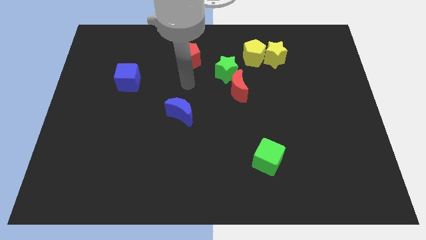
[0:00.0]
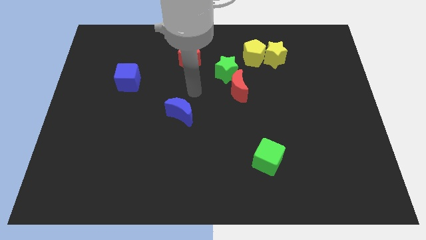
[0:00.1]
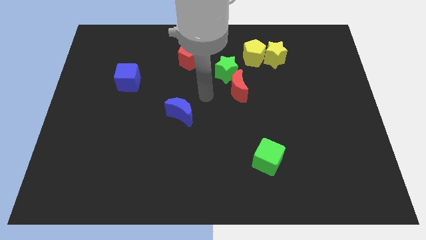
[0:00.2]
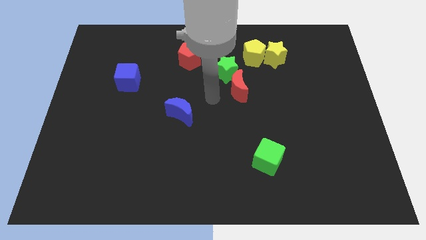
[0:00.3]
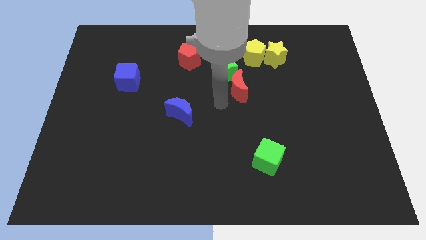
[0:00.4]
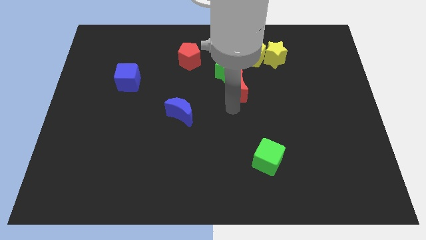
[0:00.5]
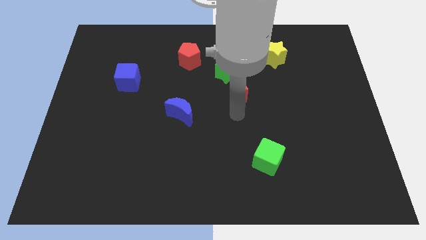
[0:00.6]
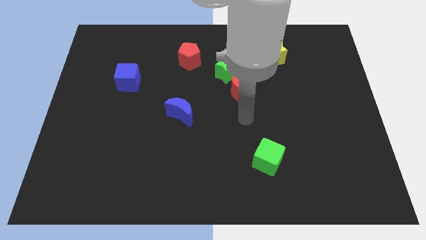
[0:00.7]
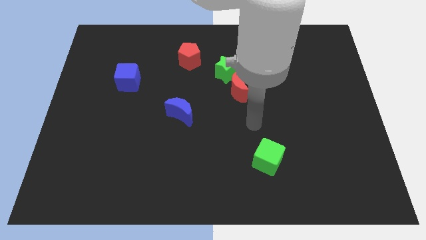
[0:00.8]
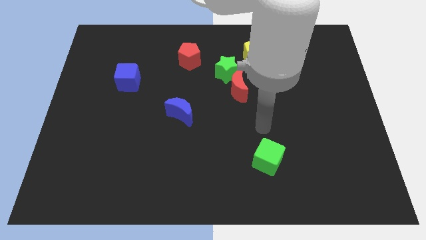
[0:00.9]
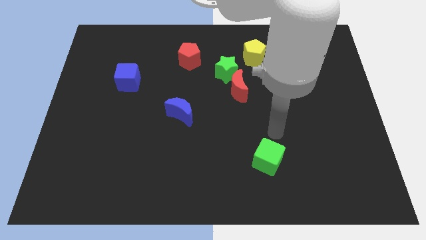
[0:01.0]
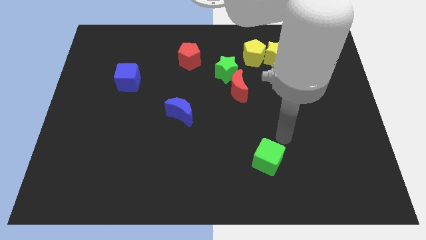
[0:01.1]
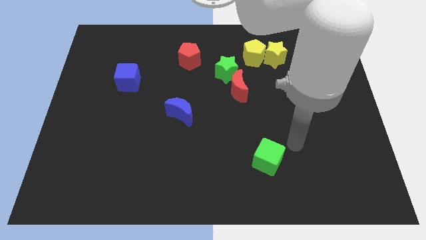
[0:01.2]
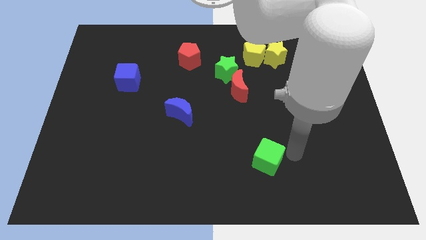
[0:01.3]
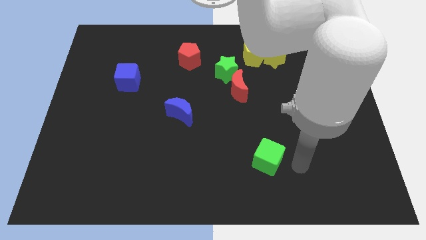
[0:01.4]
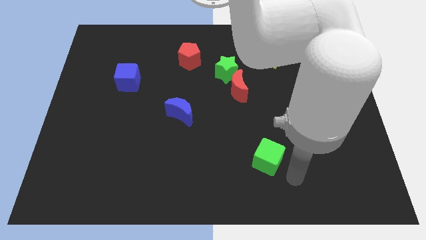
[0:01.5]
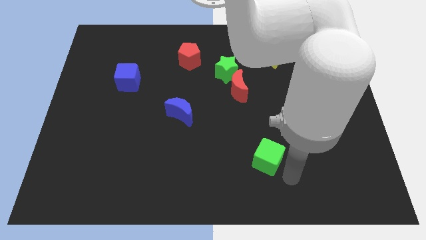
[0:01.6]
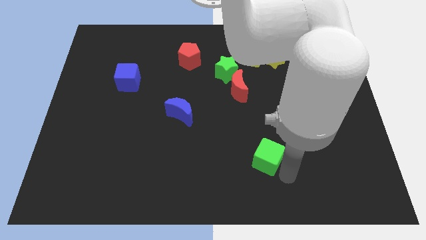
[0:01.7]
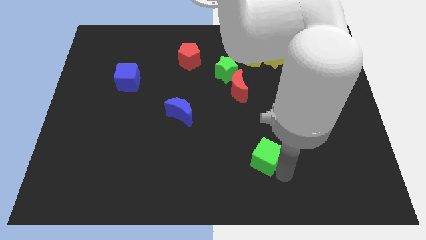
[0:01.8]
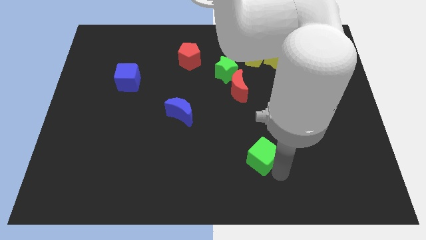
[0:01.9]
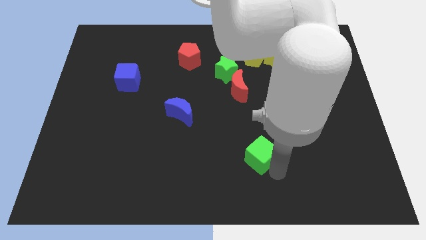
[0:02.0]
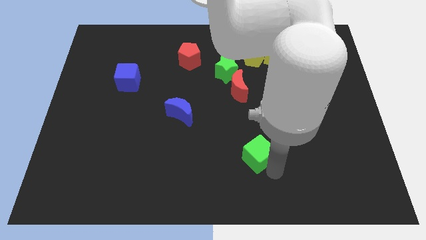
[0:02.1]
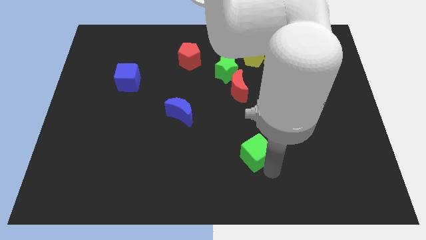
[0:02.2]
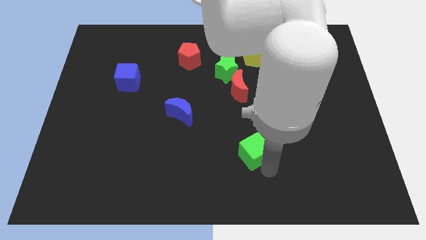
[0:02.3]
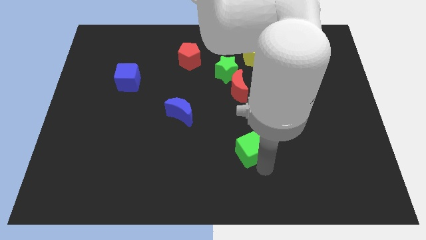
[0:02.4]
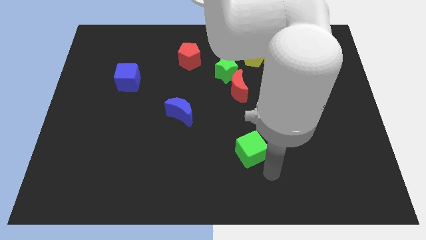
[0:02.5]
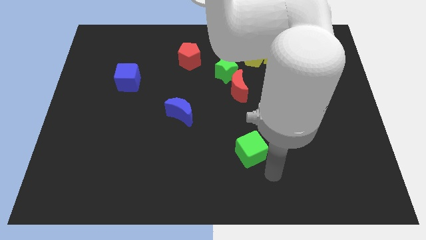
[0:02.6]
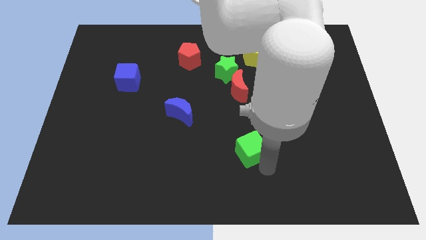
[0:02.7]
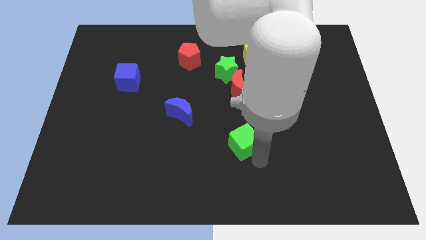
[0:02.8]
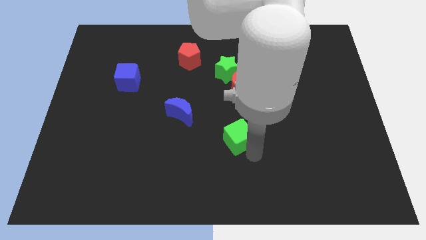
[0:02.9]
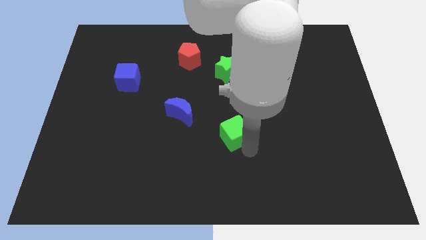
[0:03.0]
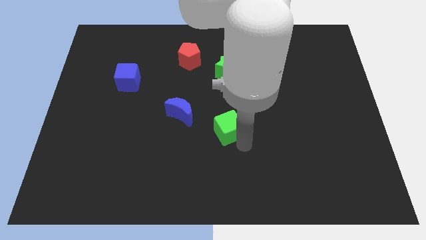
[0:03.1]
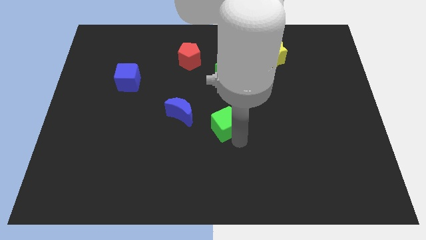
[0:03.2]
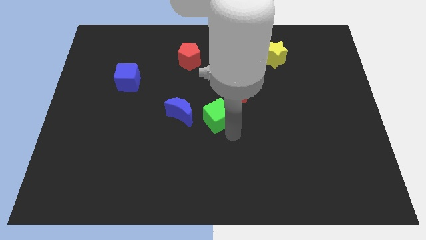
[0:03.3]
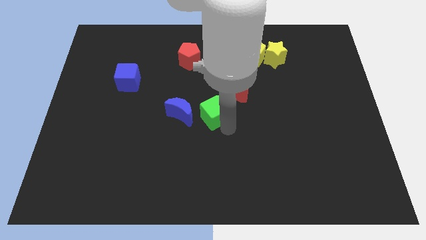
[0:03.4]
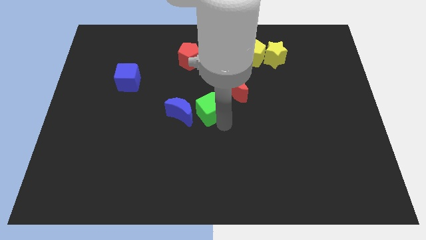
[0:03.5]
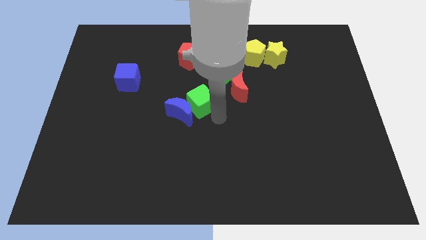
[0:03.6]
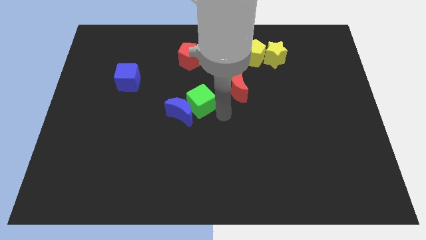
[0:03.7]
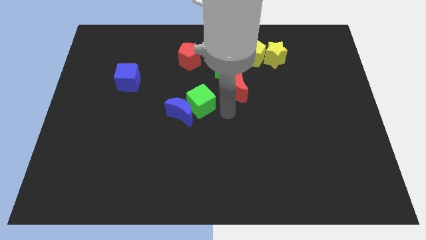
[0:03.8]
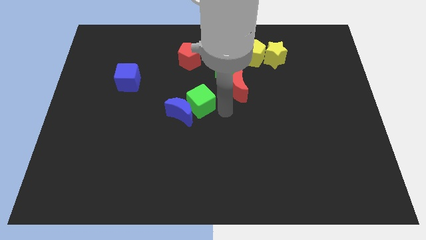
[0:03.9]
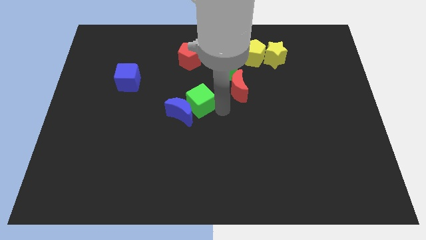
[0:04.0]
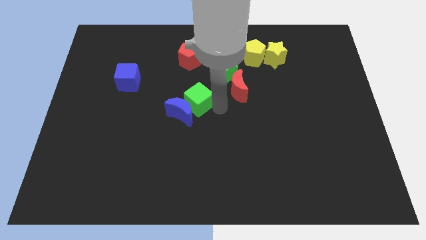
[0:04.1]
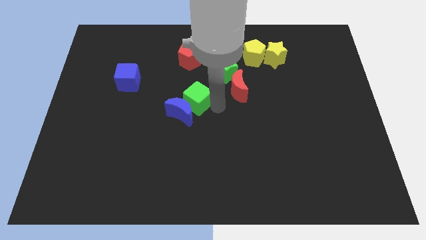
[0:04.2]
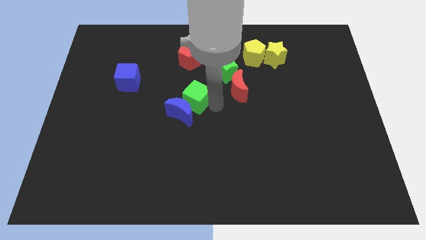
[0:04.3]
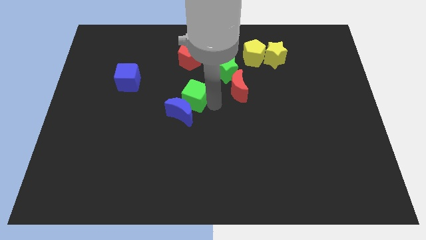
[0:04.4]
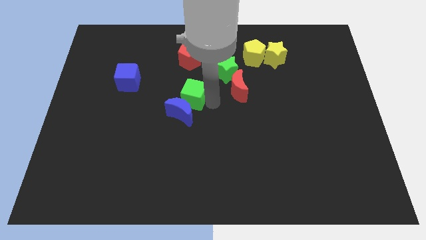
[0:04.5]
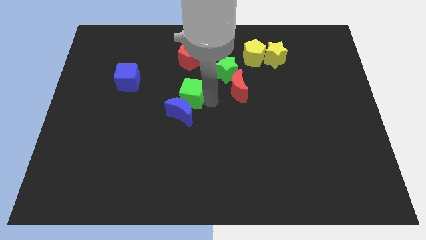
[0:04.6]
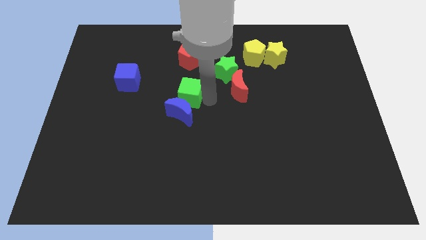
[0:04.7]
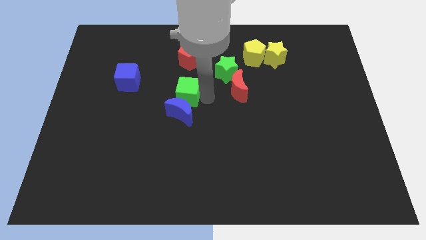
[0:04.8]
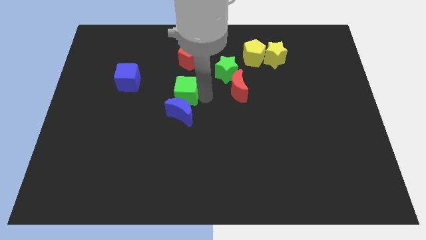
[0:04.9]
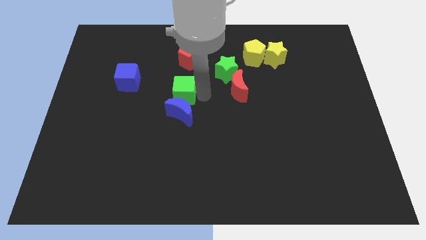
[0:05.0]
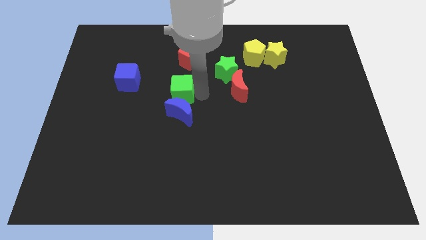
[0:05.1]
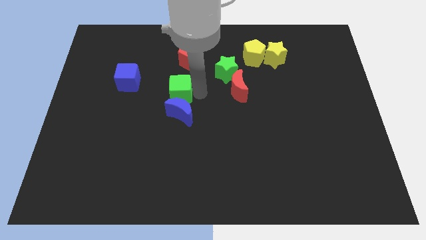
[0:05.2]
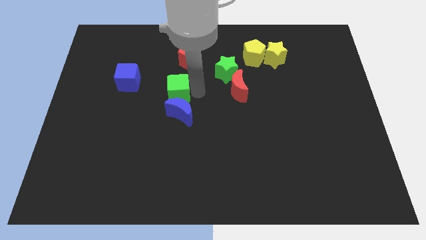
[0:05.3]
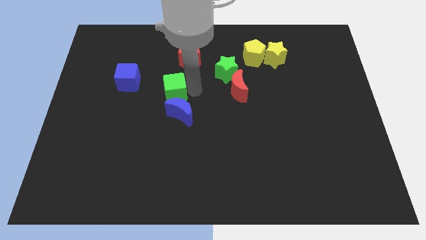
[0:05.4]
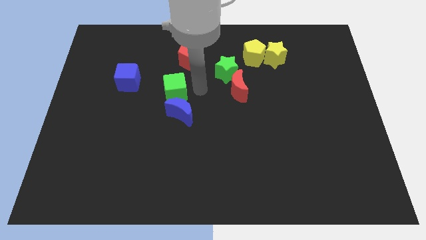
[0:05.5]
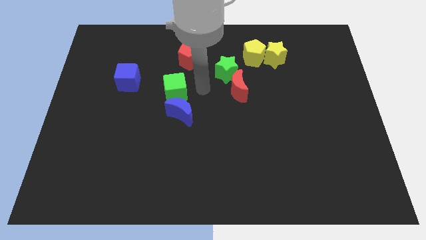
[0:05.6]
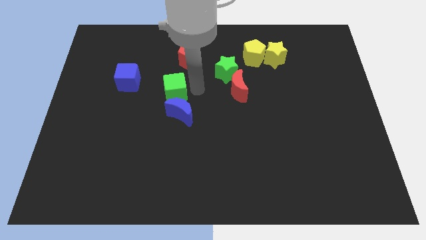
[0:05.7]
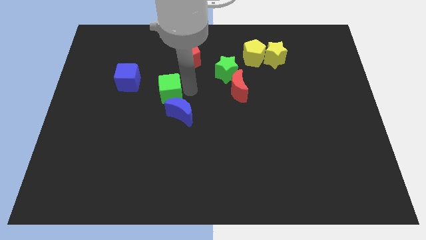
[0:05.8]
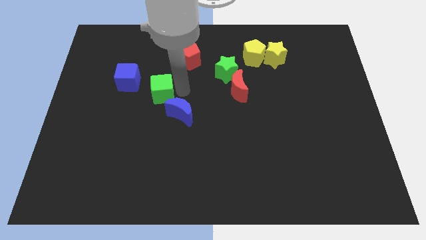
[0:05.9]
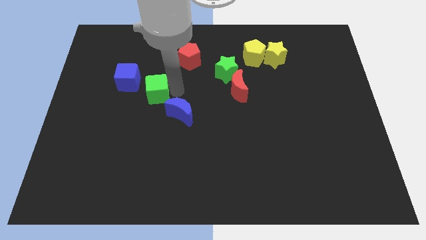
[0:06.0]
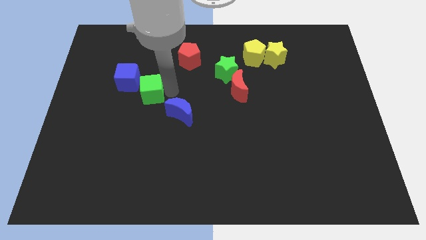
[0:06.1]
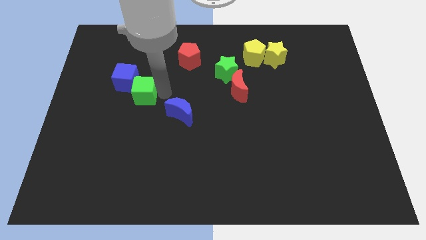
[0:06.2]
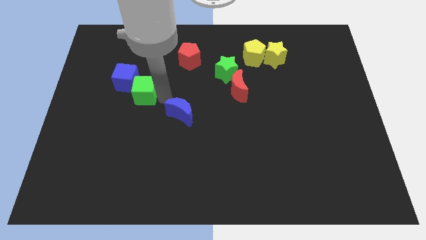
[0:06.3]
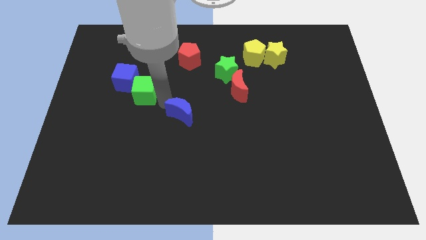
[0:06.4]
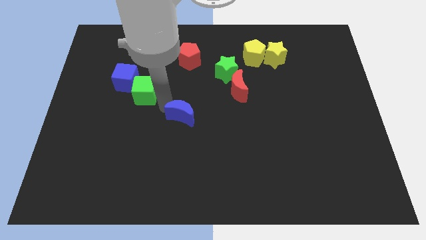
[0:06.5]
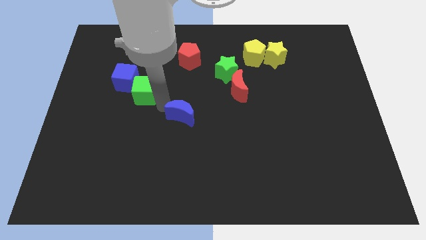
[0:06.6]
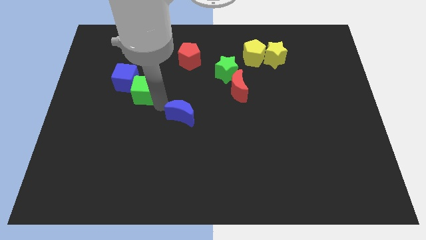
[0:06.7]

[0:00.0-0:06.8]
push the green cube to the blue cube
